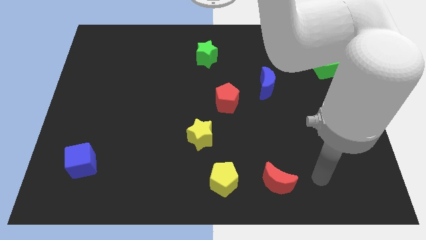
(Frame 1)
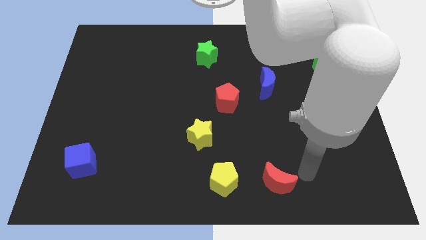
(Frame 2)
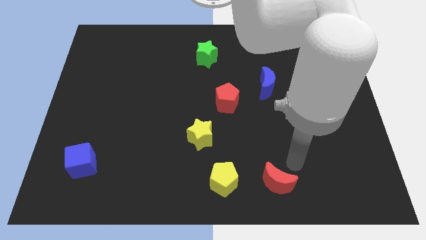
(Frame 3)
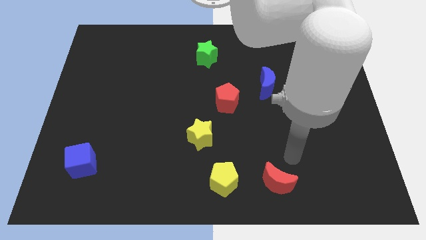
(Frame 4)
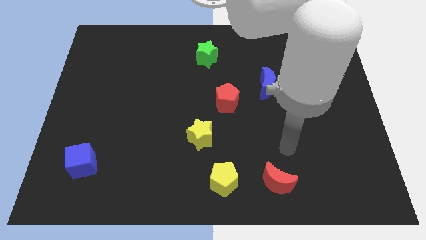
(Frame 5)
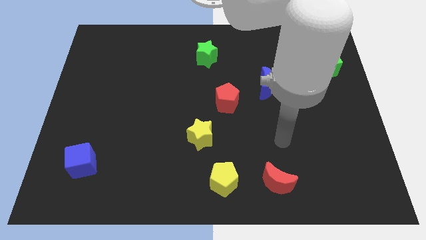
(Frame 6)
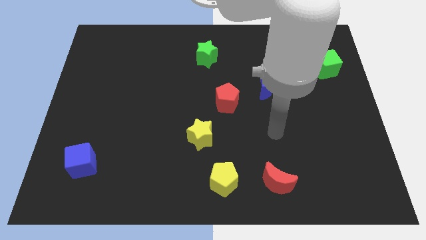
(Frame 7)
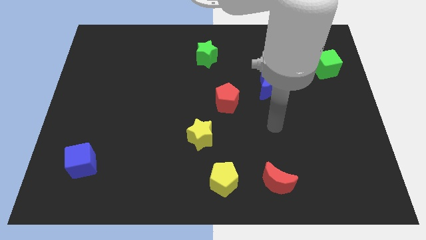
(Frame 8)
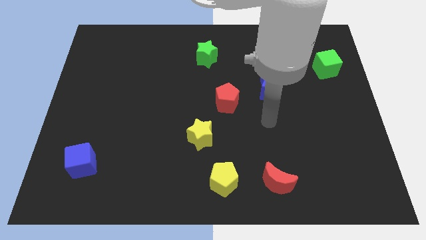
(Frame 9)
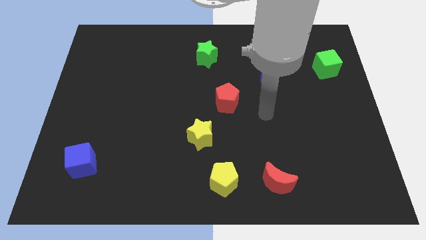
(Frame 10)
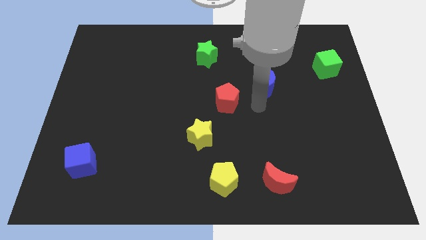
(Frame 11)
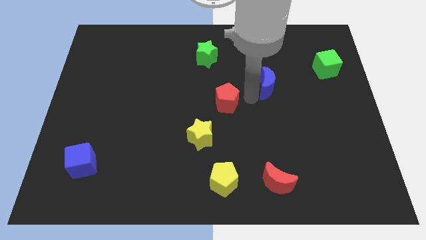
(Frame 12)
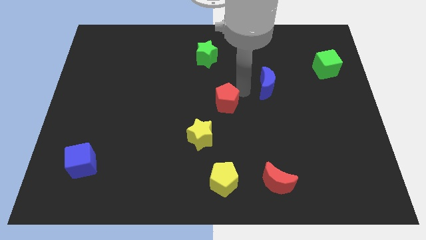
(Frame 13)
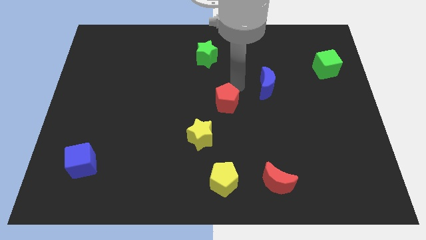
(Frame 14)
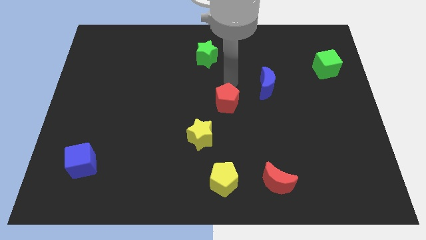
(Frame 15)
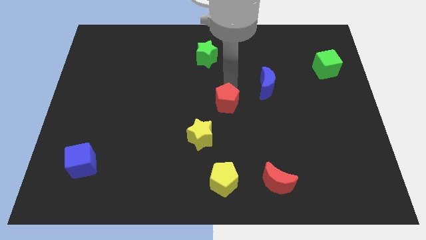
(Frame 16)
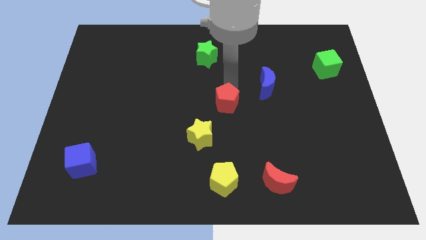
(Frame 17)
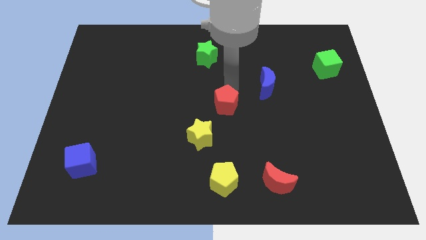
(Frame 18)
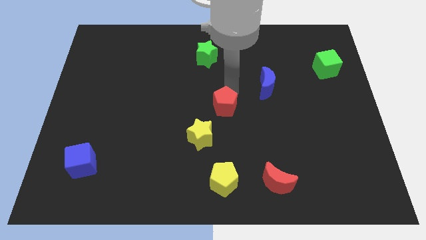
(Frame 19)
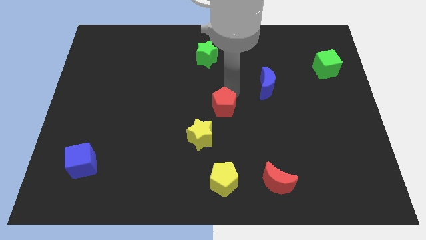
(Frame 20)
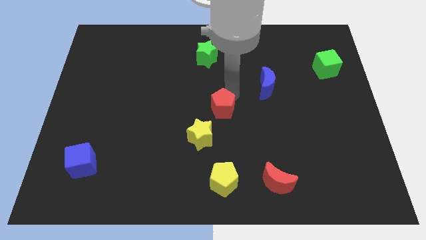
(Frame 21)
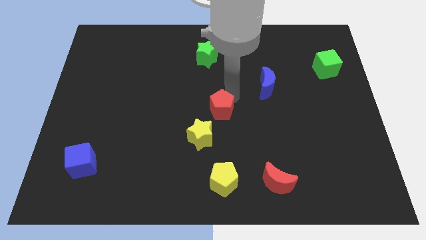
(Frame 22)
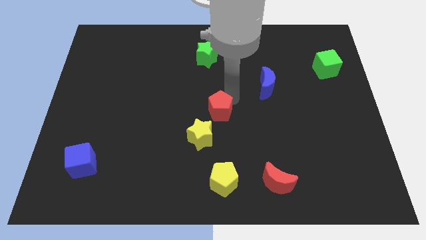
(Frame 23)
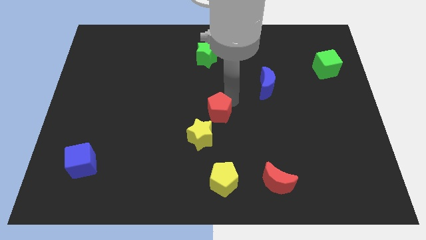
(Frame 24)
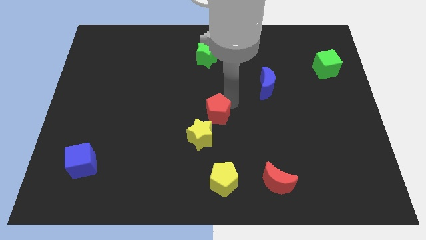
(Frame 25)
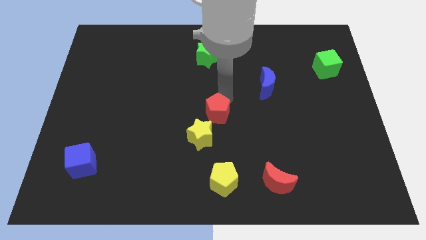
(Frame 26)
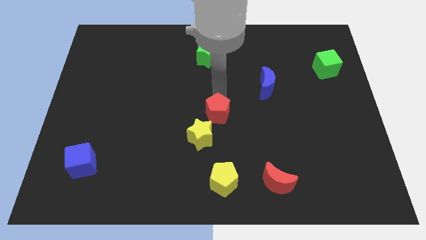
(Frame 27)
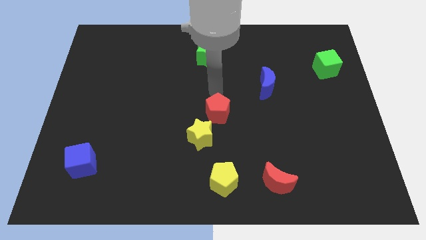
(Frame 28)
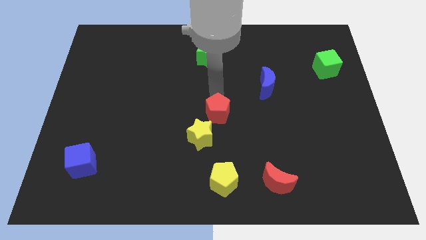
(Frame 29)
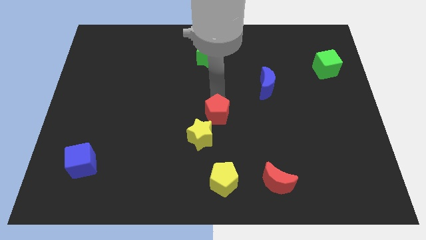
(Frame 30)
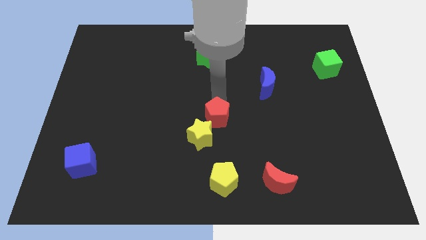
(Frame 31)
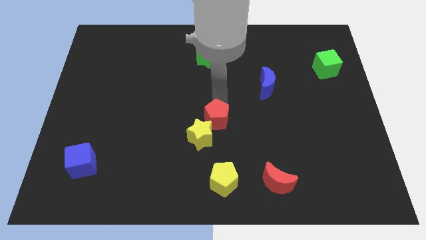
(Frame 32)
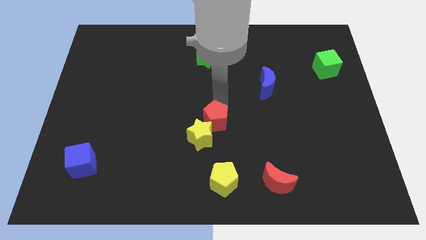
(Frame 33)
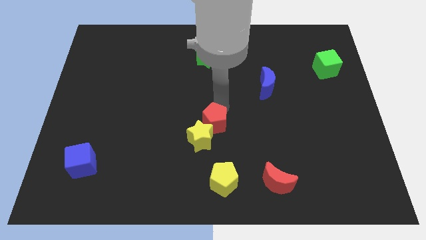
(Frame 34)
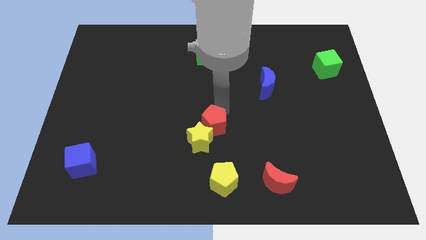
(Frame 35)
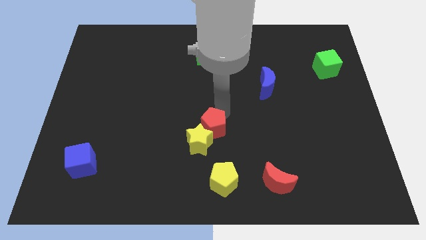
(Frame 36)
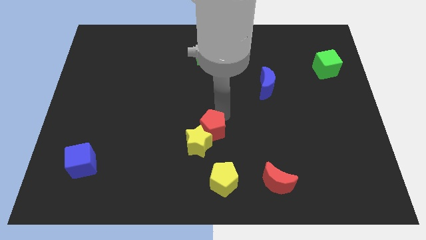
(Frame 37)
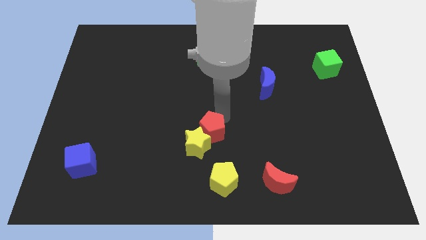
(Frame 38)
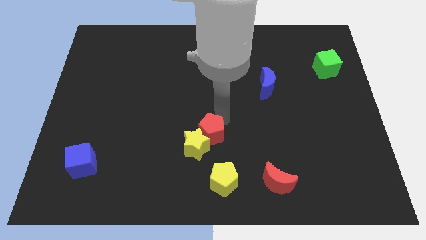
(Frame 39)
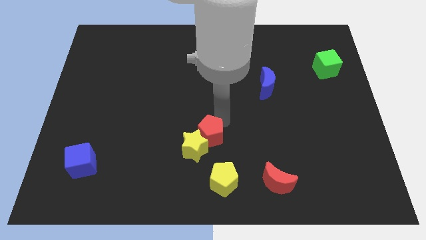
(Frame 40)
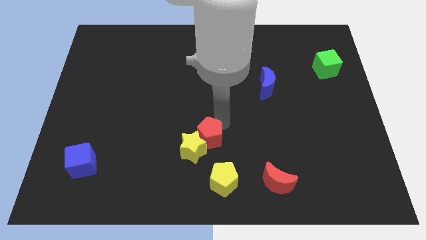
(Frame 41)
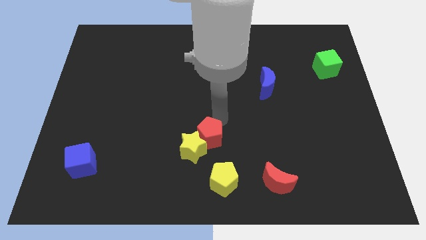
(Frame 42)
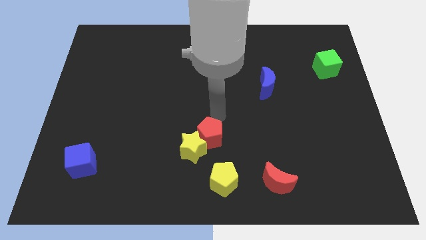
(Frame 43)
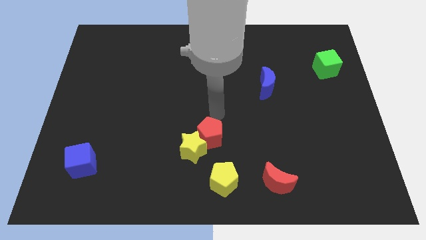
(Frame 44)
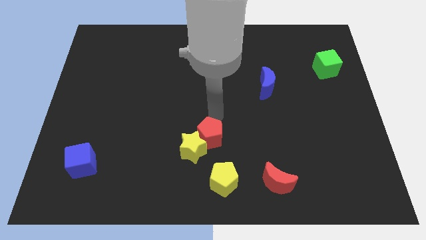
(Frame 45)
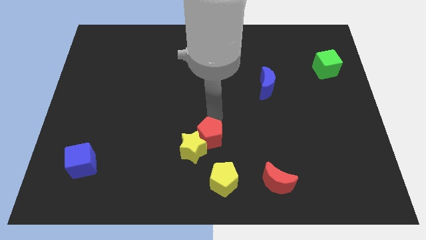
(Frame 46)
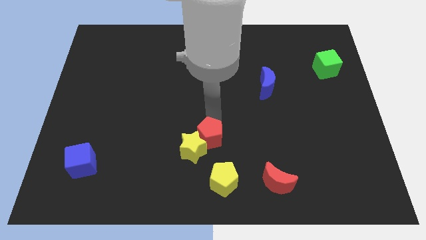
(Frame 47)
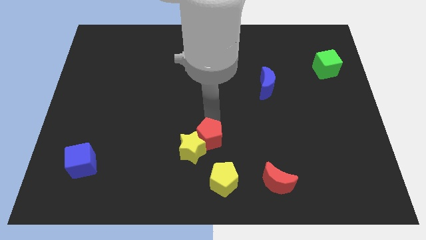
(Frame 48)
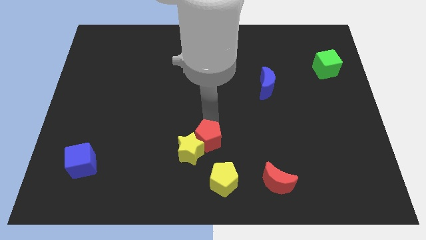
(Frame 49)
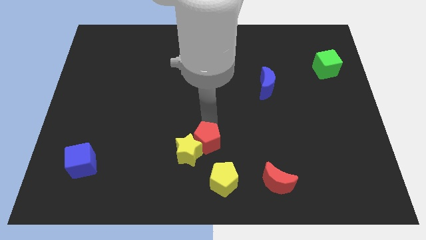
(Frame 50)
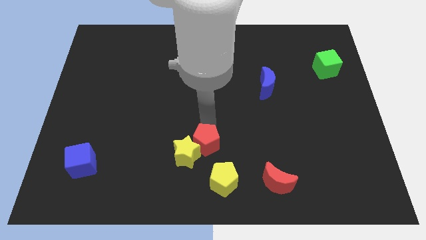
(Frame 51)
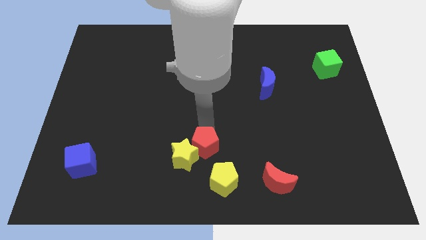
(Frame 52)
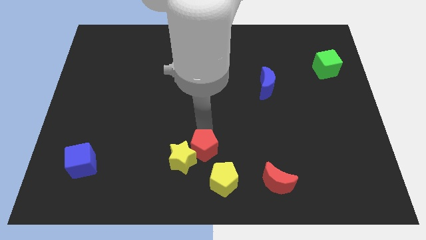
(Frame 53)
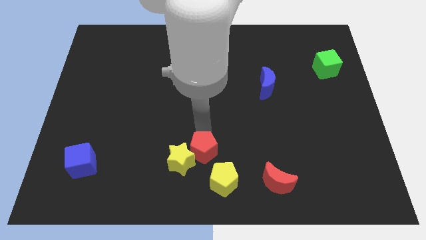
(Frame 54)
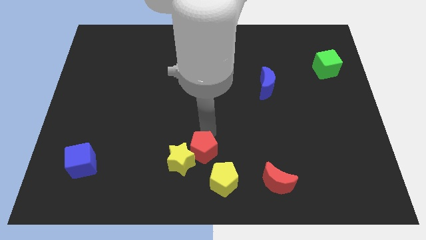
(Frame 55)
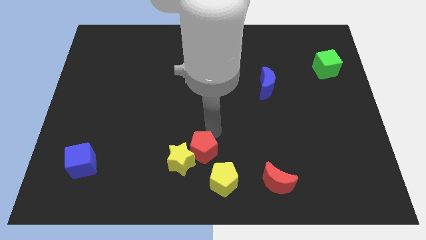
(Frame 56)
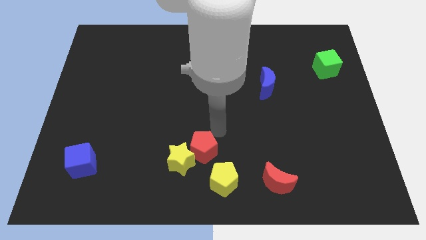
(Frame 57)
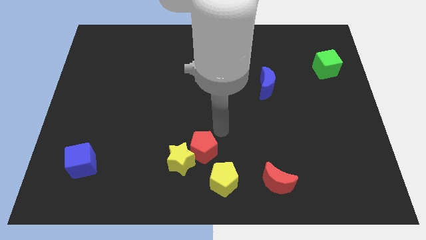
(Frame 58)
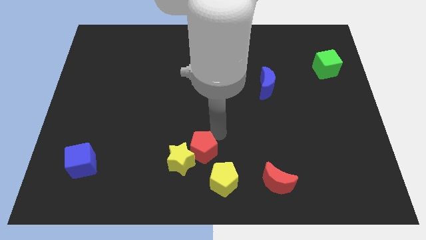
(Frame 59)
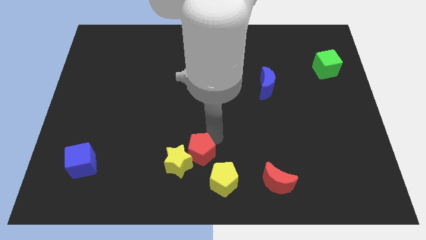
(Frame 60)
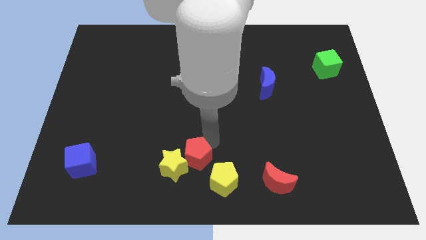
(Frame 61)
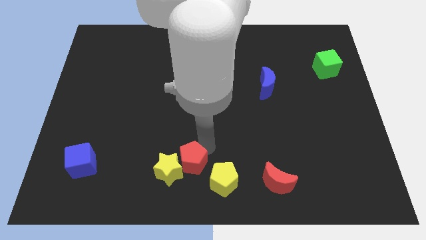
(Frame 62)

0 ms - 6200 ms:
push the red pentagon to the left side of the yellow pentagon

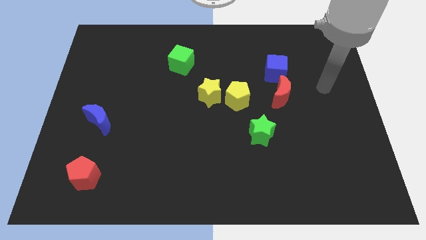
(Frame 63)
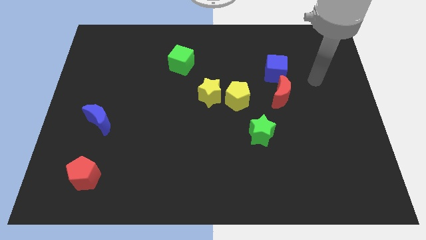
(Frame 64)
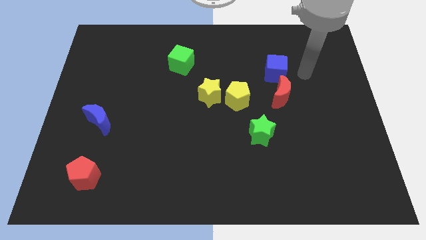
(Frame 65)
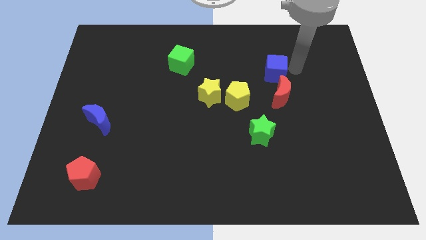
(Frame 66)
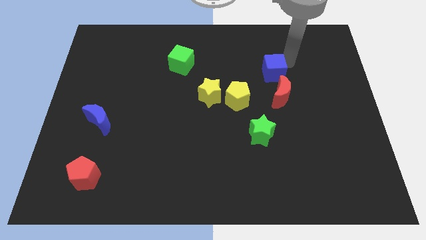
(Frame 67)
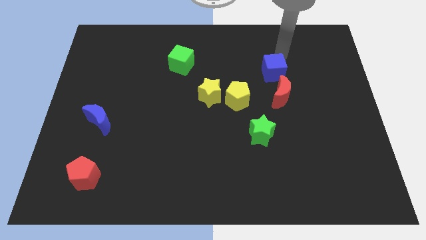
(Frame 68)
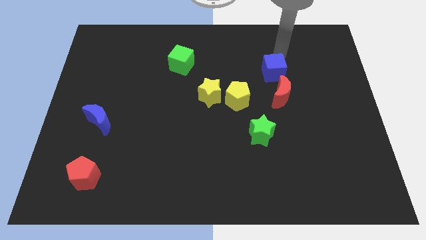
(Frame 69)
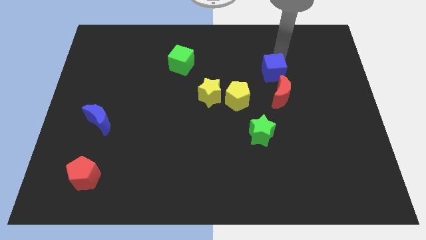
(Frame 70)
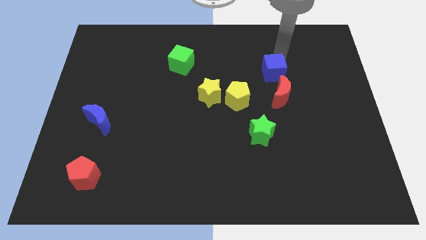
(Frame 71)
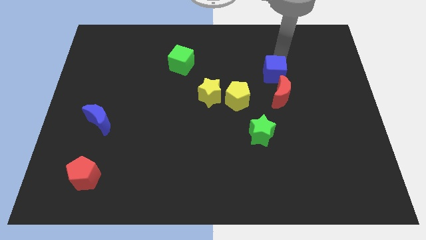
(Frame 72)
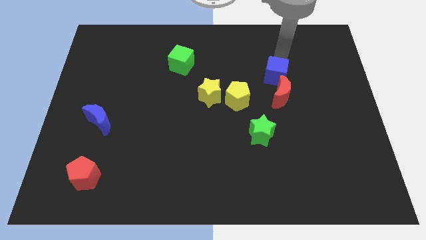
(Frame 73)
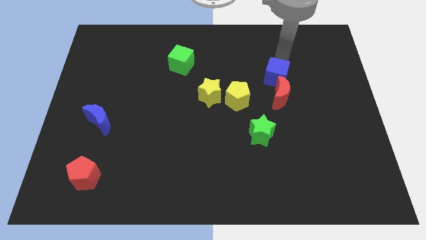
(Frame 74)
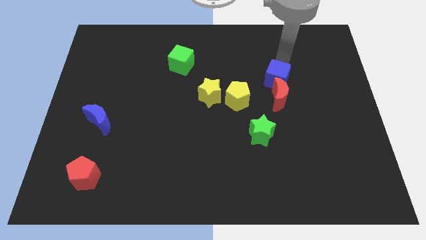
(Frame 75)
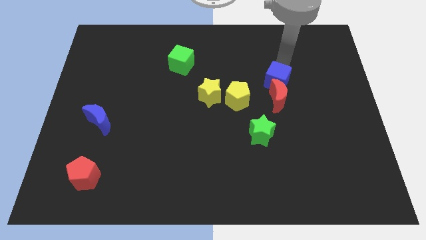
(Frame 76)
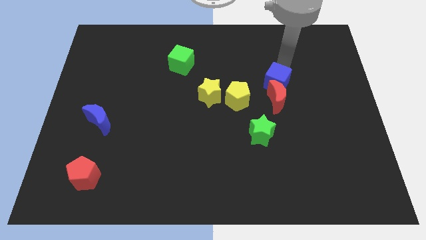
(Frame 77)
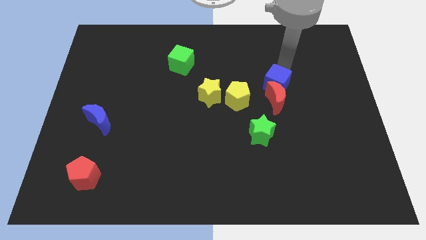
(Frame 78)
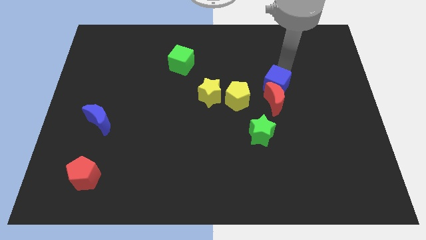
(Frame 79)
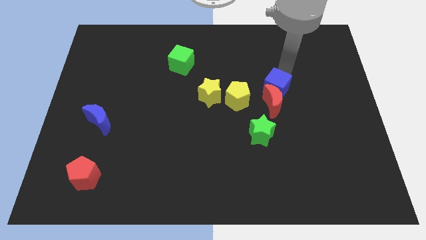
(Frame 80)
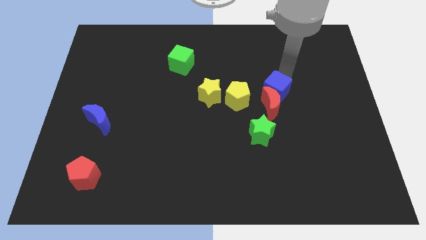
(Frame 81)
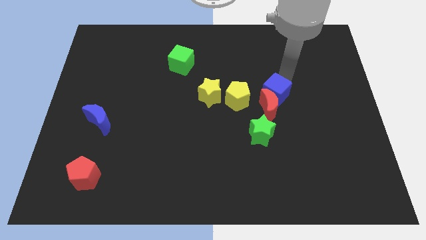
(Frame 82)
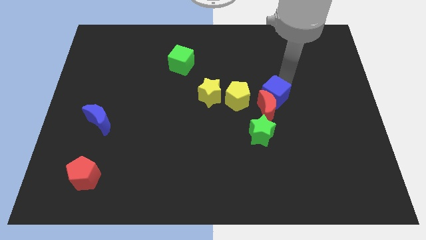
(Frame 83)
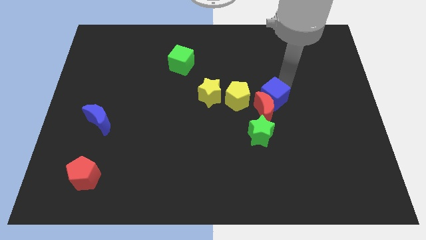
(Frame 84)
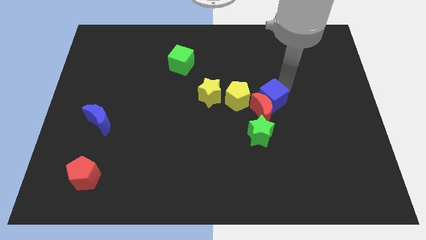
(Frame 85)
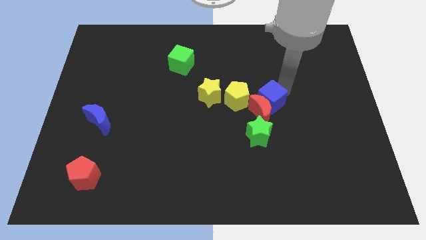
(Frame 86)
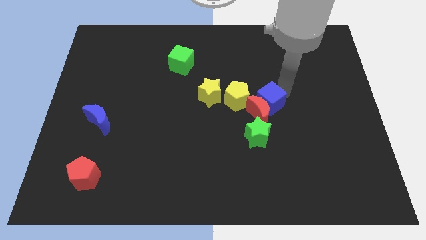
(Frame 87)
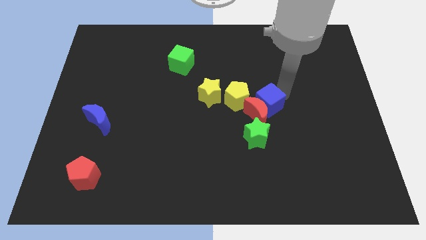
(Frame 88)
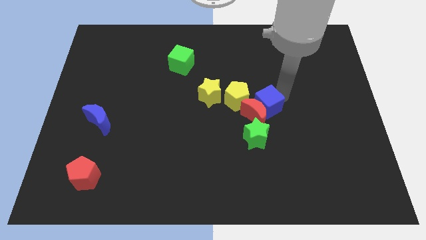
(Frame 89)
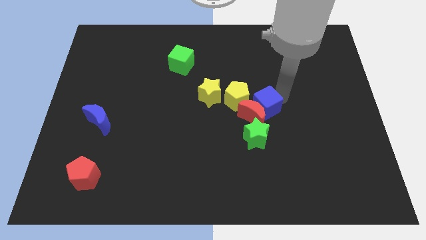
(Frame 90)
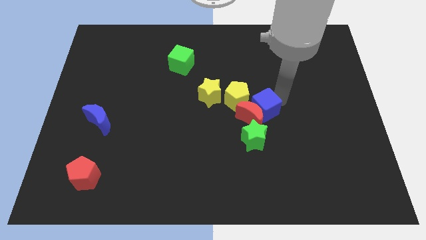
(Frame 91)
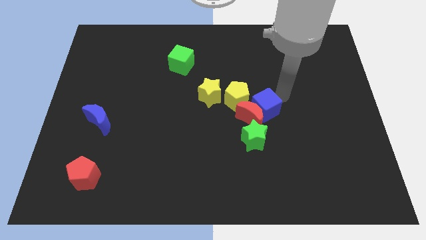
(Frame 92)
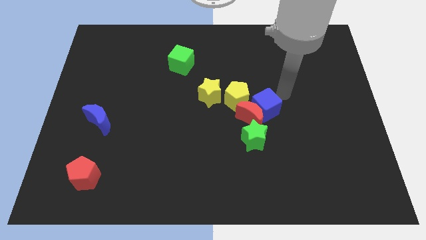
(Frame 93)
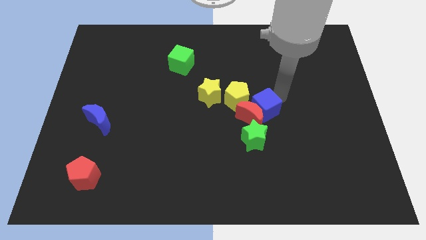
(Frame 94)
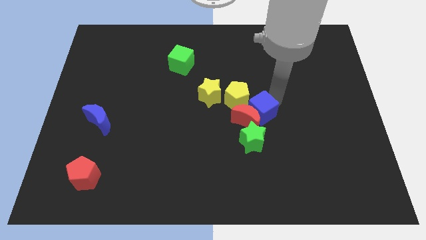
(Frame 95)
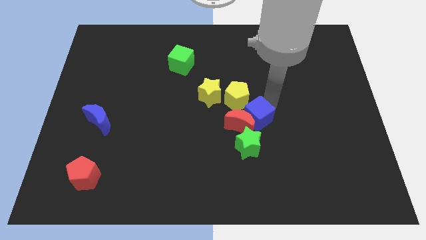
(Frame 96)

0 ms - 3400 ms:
push the blue cube below the yellow pentagon
